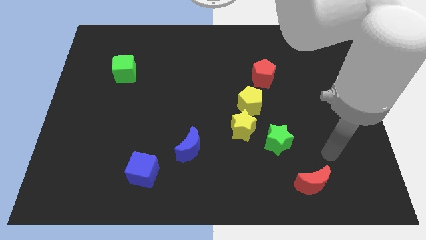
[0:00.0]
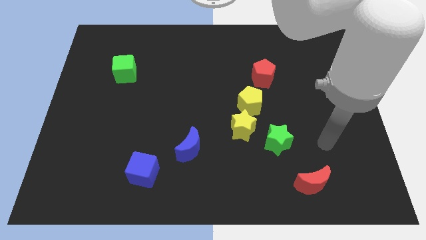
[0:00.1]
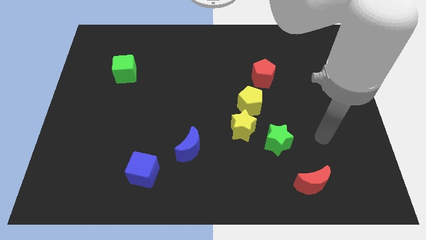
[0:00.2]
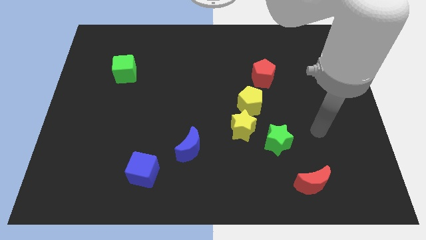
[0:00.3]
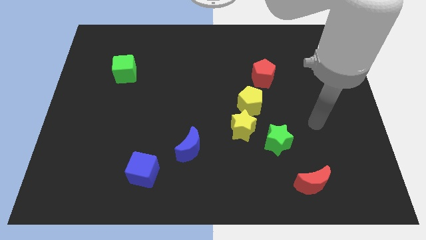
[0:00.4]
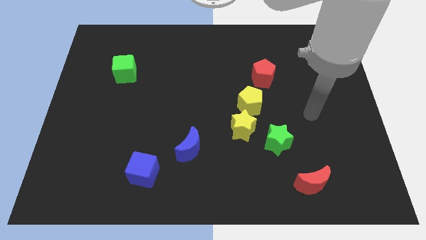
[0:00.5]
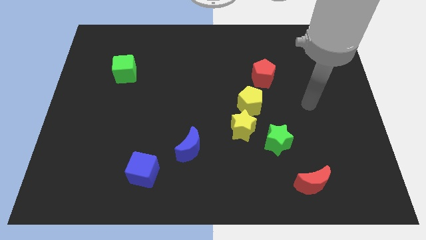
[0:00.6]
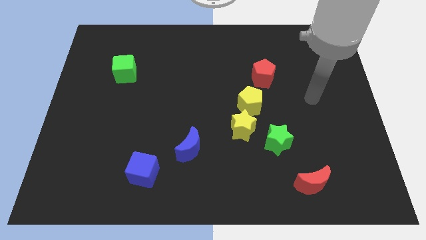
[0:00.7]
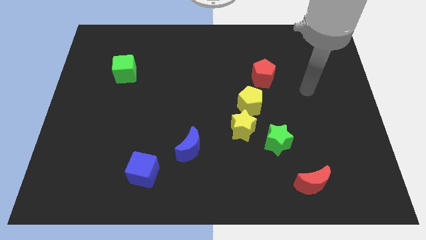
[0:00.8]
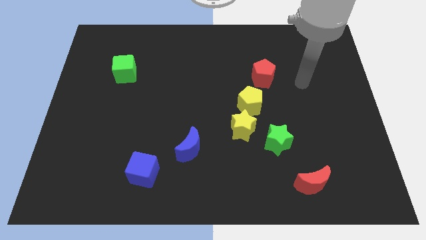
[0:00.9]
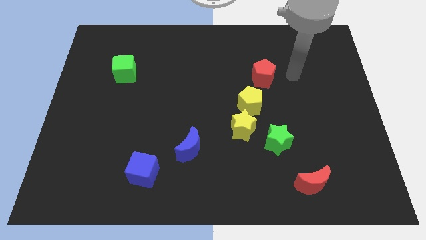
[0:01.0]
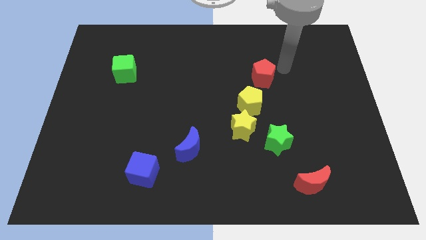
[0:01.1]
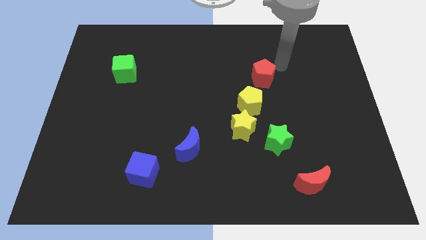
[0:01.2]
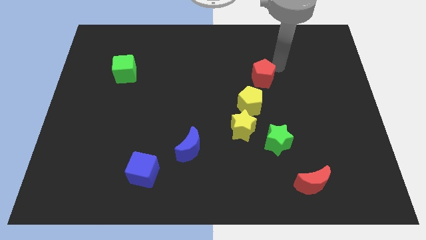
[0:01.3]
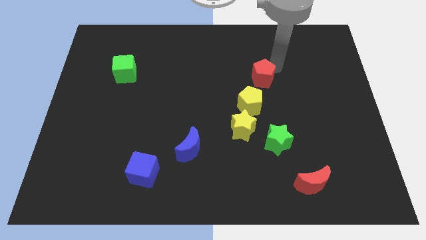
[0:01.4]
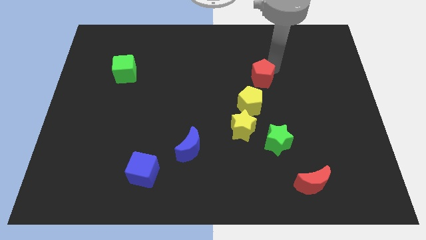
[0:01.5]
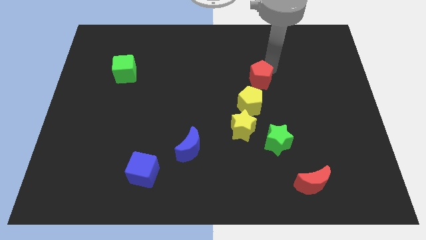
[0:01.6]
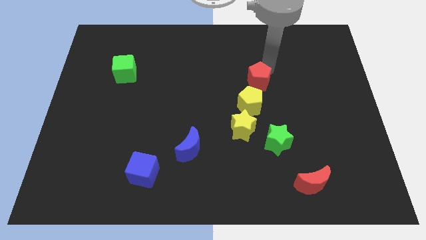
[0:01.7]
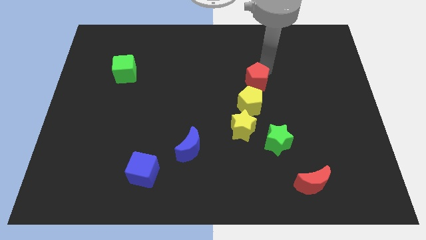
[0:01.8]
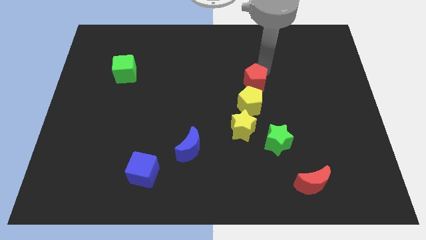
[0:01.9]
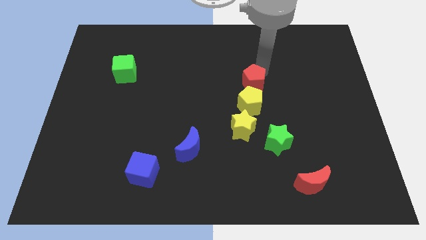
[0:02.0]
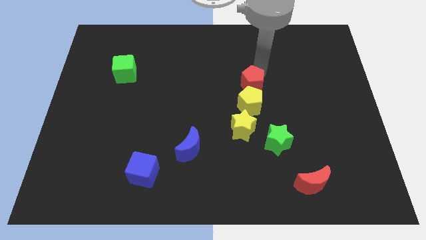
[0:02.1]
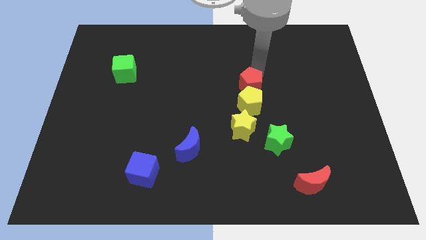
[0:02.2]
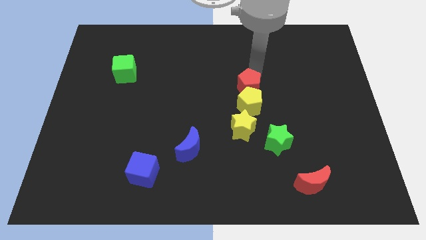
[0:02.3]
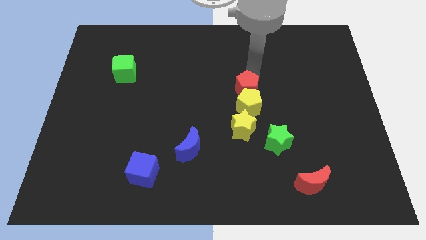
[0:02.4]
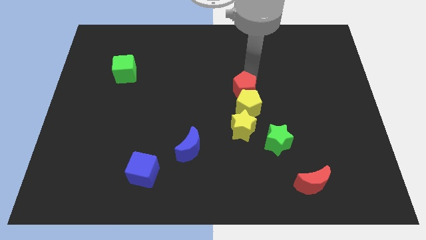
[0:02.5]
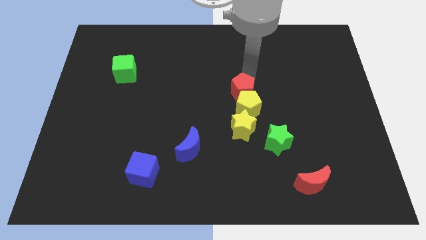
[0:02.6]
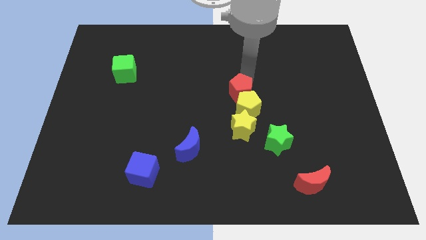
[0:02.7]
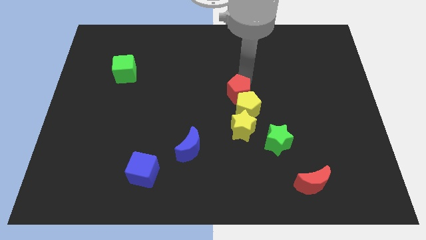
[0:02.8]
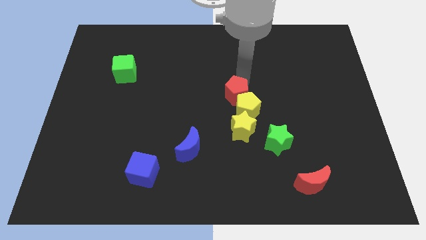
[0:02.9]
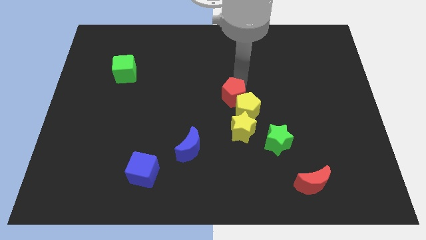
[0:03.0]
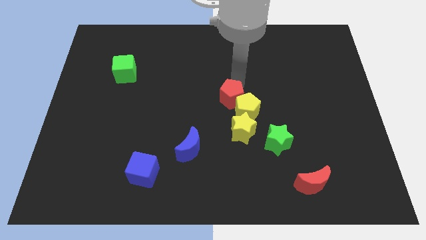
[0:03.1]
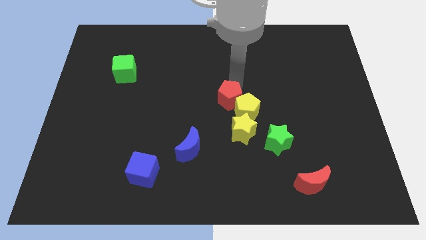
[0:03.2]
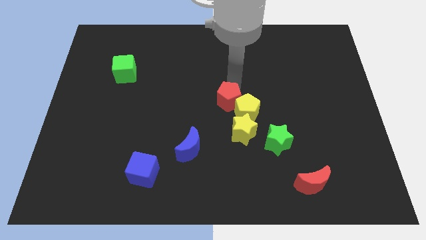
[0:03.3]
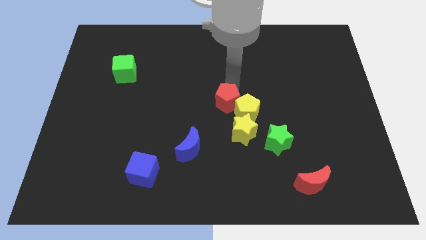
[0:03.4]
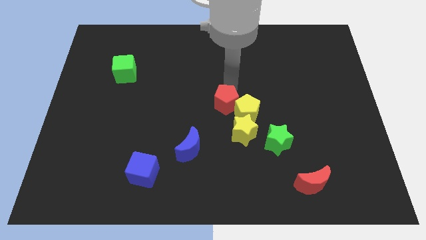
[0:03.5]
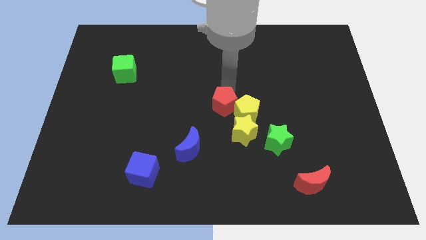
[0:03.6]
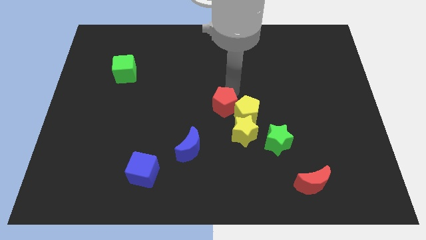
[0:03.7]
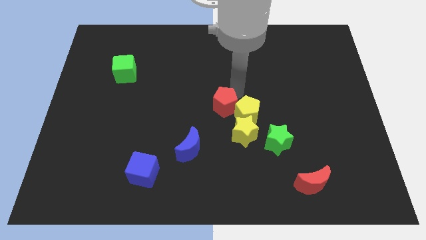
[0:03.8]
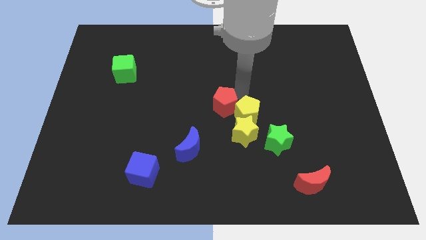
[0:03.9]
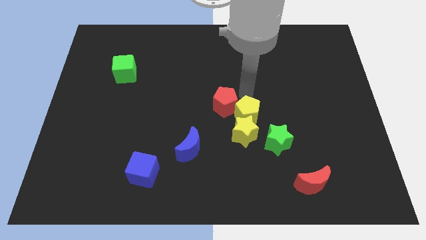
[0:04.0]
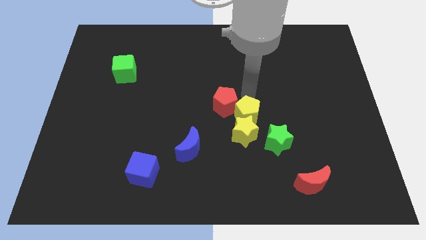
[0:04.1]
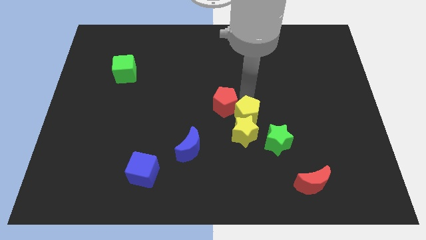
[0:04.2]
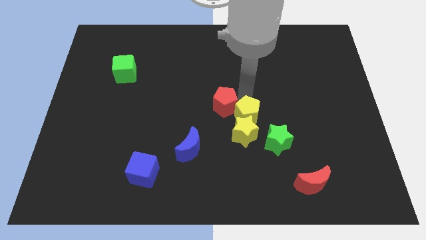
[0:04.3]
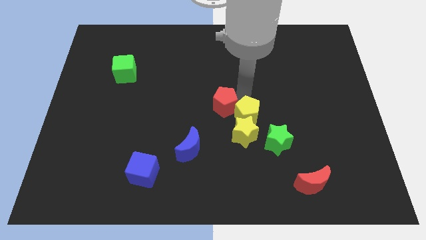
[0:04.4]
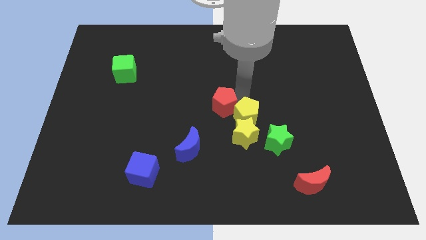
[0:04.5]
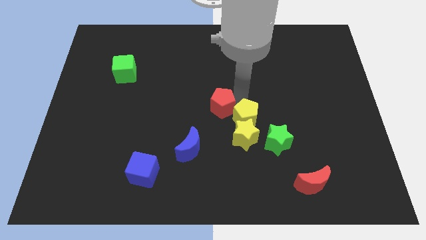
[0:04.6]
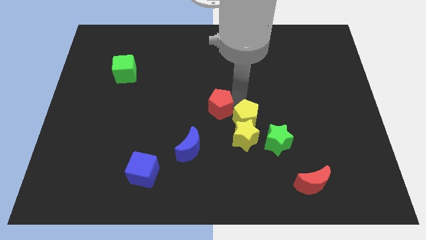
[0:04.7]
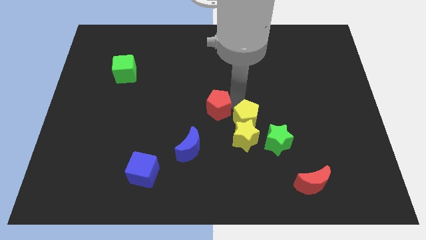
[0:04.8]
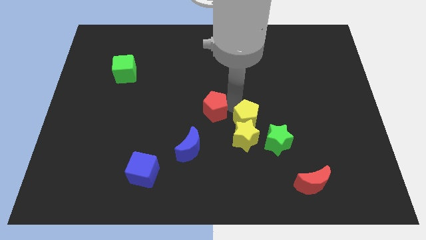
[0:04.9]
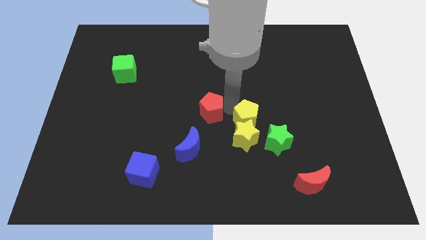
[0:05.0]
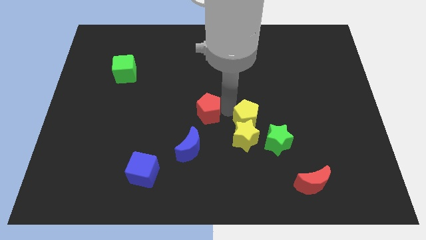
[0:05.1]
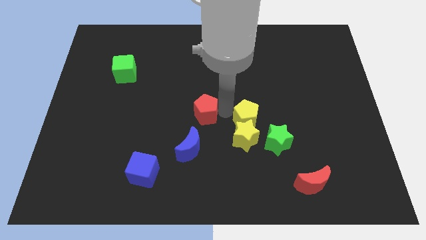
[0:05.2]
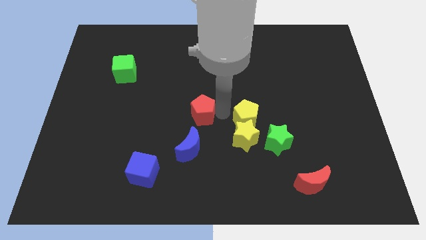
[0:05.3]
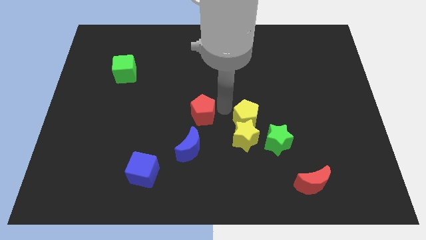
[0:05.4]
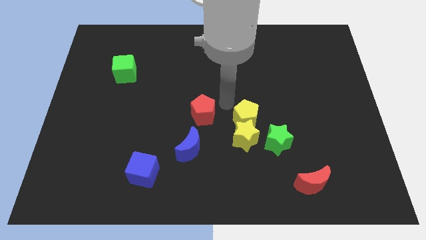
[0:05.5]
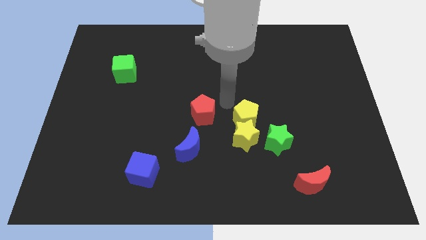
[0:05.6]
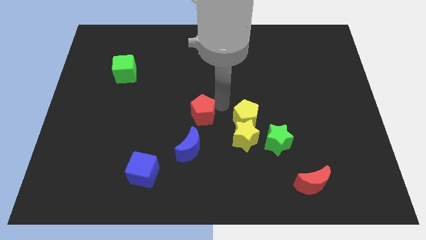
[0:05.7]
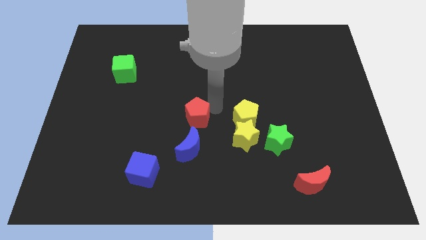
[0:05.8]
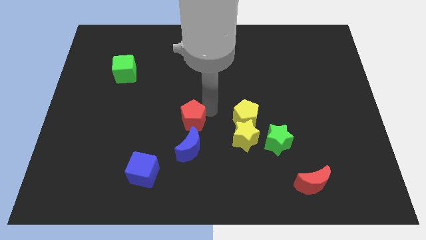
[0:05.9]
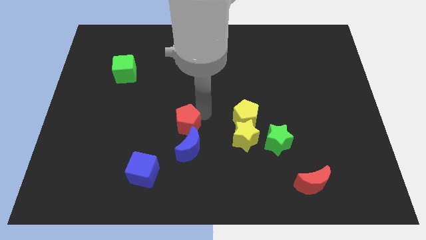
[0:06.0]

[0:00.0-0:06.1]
move the red pentagon to the top left side of the blue moon

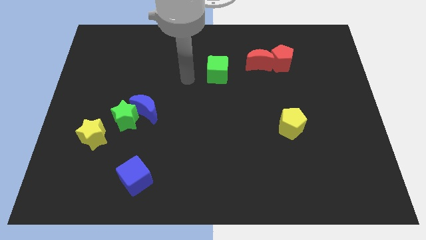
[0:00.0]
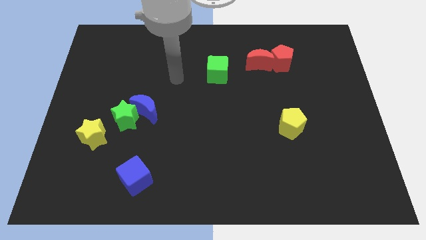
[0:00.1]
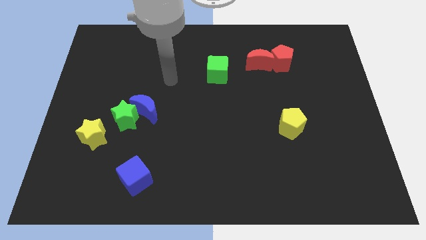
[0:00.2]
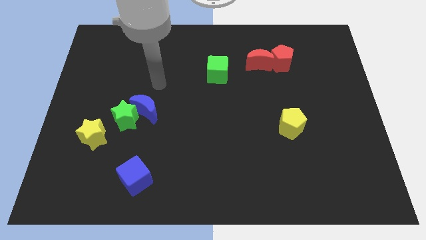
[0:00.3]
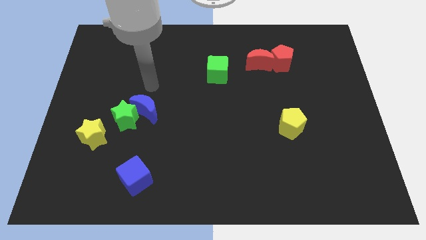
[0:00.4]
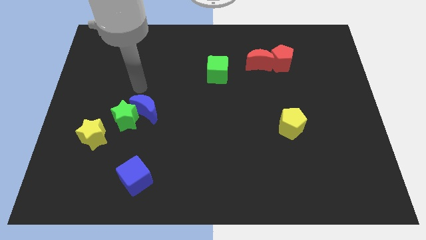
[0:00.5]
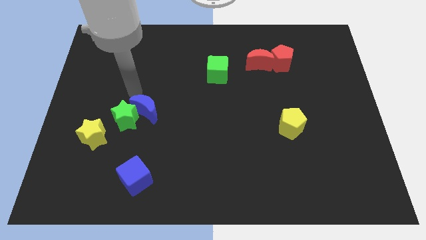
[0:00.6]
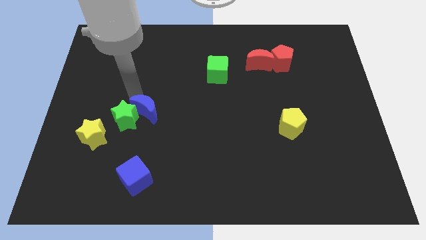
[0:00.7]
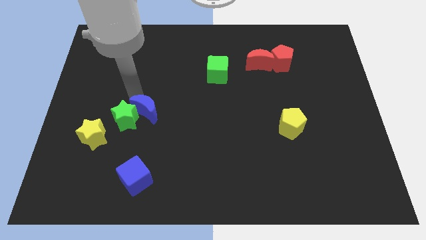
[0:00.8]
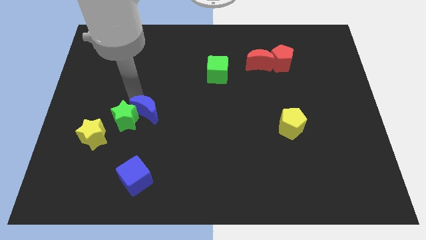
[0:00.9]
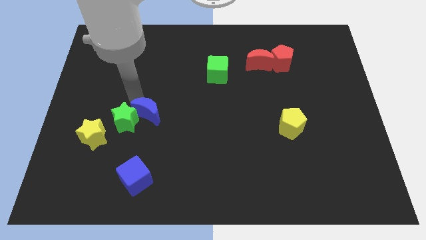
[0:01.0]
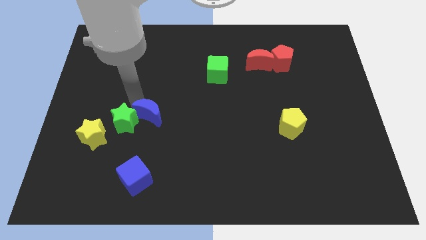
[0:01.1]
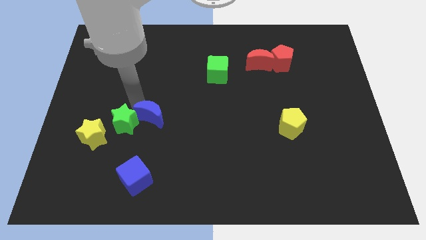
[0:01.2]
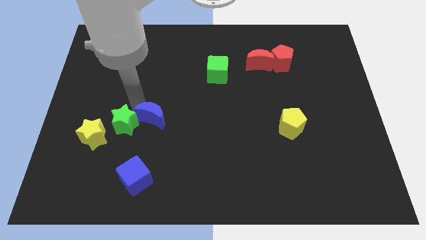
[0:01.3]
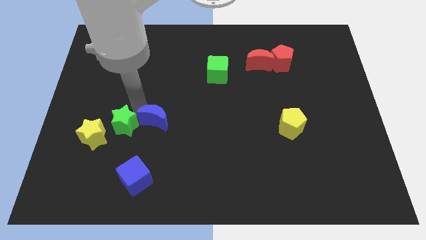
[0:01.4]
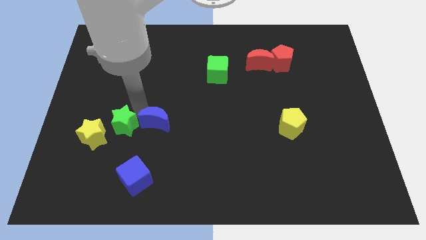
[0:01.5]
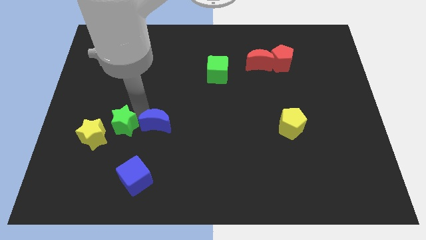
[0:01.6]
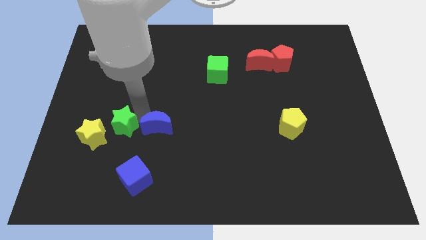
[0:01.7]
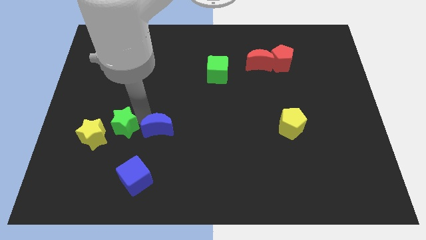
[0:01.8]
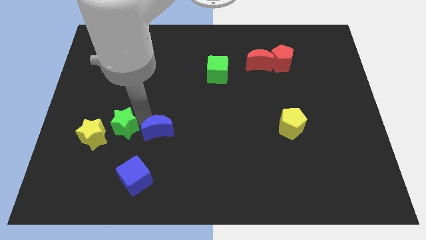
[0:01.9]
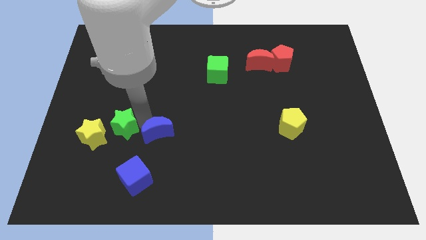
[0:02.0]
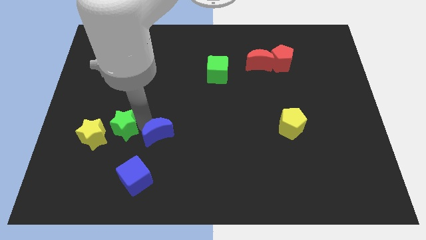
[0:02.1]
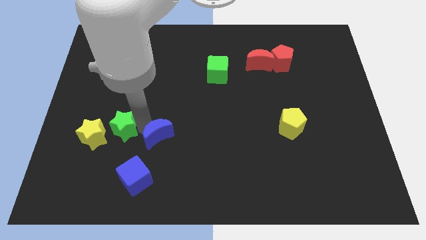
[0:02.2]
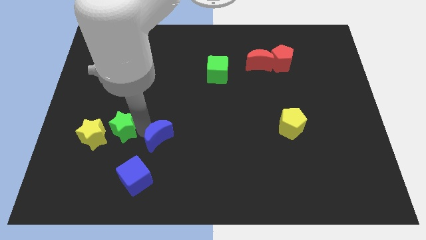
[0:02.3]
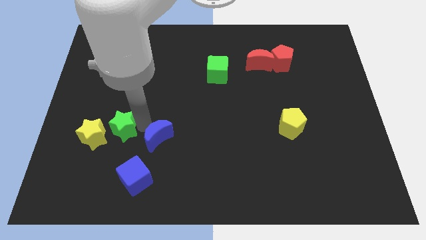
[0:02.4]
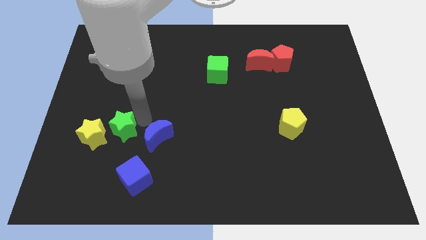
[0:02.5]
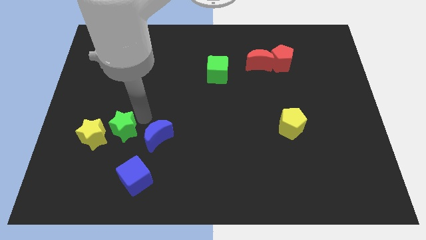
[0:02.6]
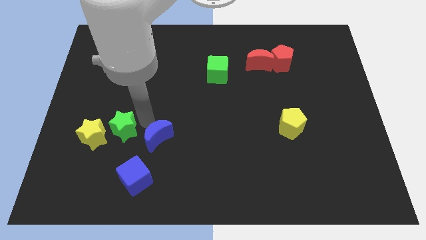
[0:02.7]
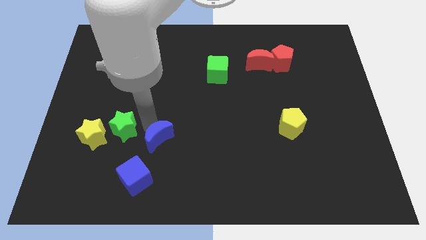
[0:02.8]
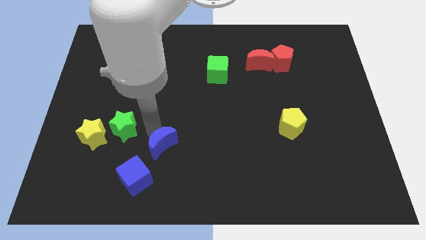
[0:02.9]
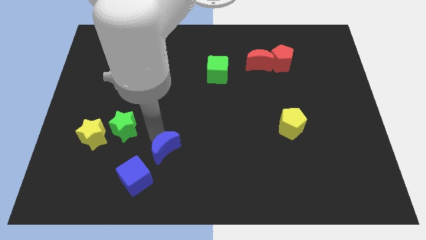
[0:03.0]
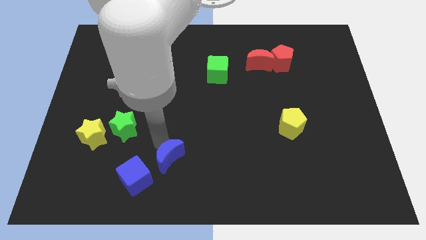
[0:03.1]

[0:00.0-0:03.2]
move the blue moon to the right of the blue cube
